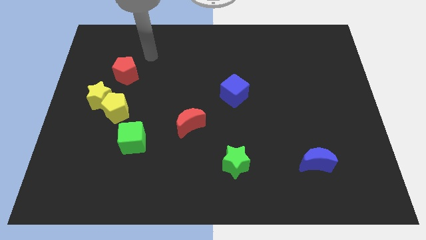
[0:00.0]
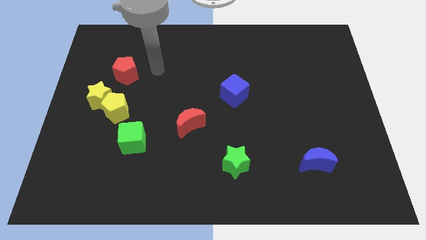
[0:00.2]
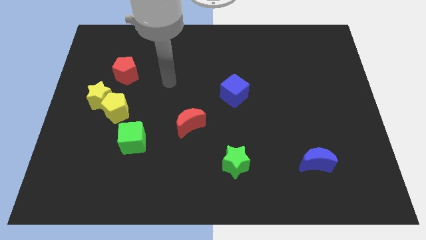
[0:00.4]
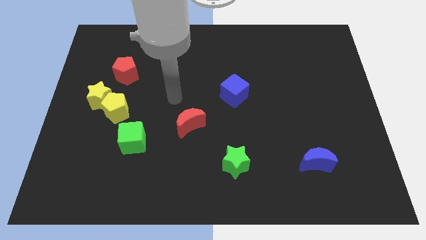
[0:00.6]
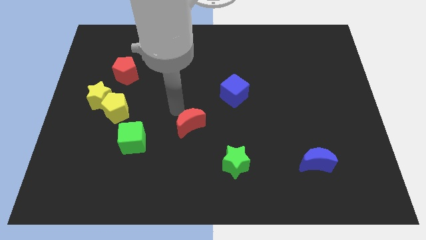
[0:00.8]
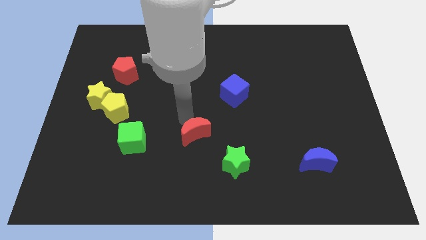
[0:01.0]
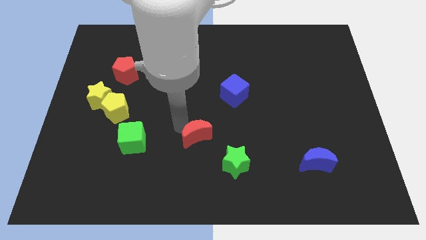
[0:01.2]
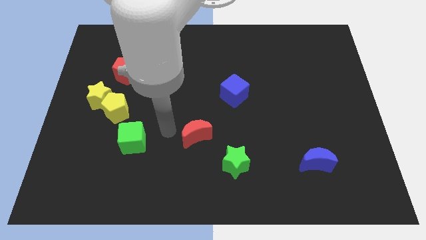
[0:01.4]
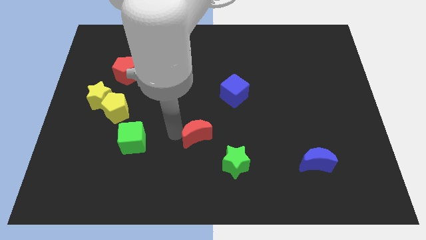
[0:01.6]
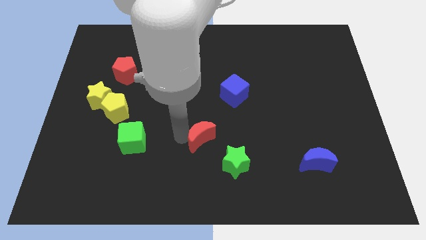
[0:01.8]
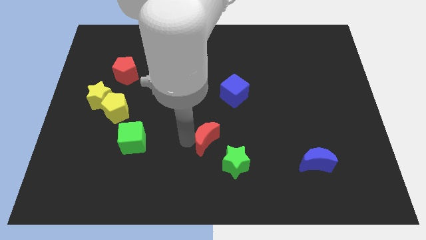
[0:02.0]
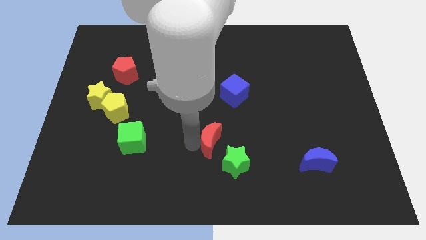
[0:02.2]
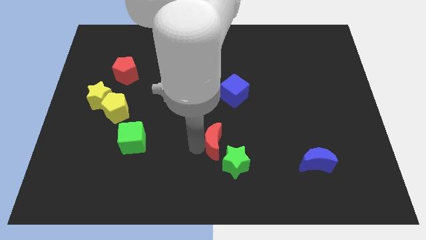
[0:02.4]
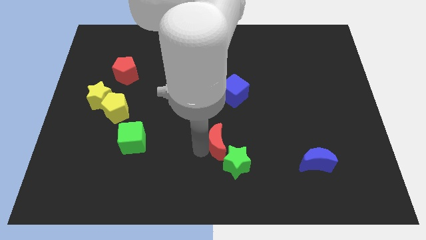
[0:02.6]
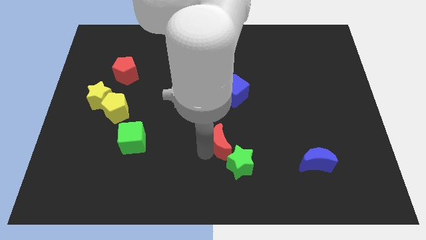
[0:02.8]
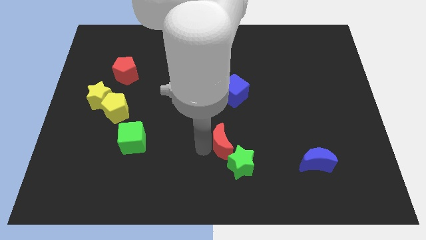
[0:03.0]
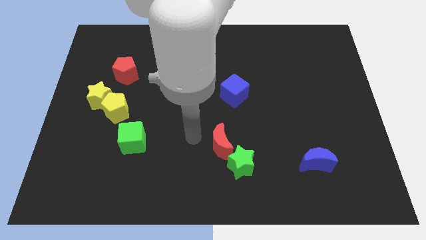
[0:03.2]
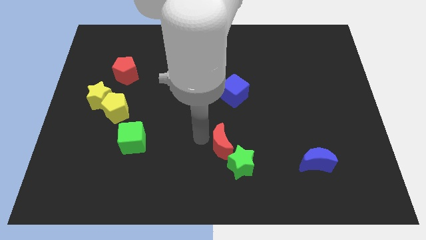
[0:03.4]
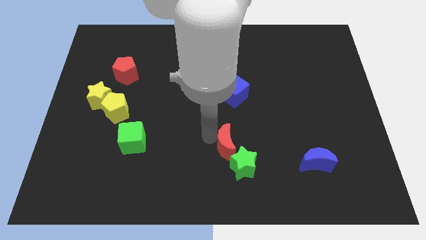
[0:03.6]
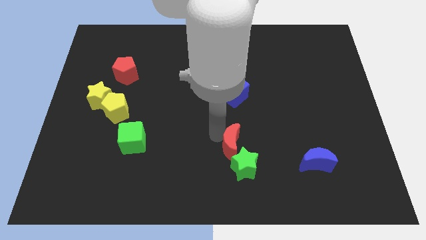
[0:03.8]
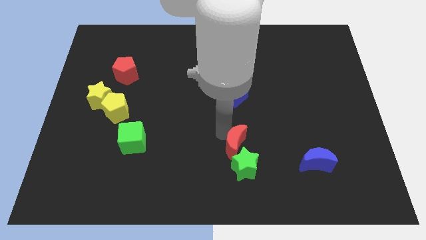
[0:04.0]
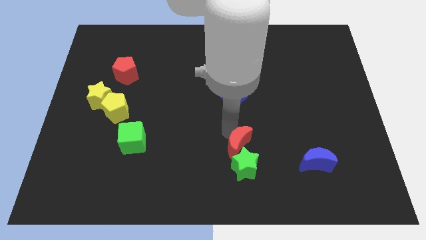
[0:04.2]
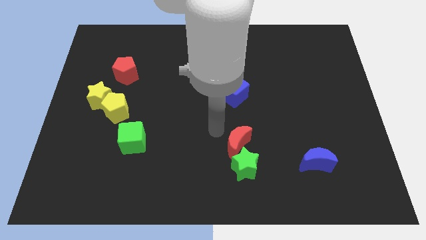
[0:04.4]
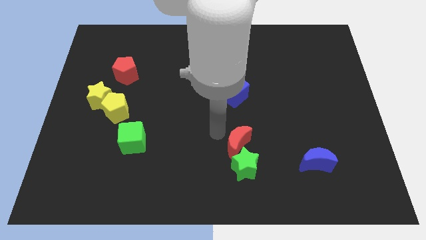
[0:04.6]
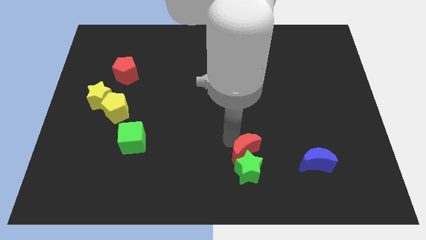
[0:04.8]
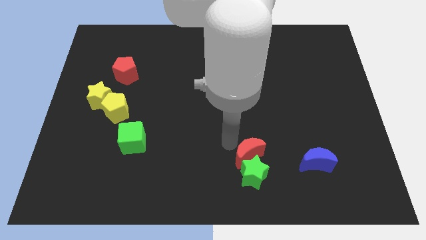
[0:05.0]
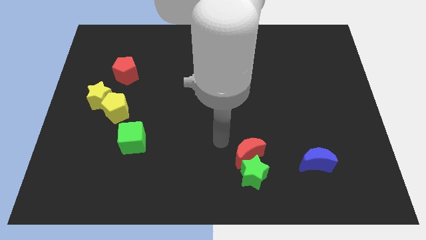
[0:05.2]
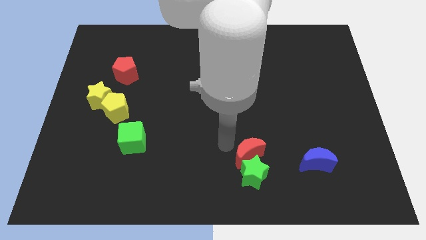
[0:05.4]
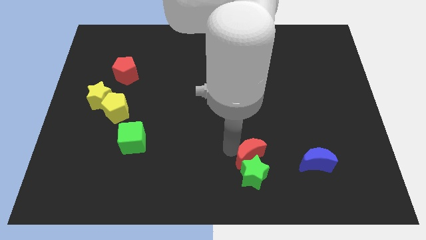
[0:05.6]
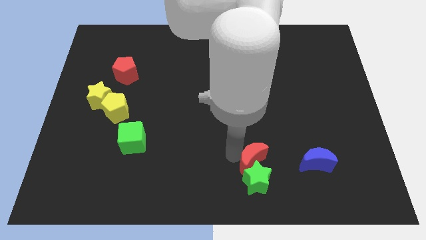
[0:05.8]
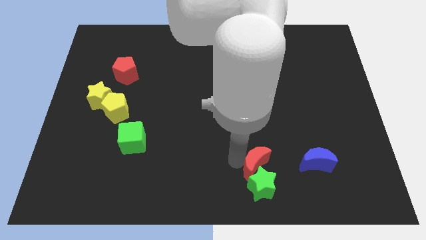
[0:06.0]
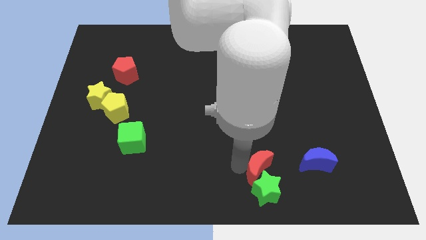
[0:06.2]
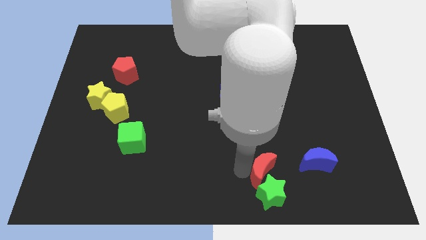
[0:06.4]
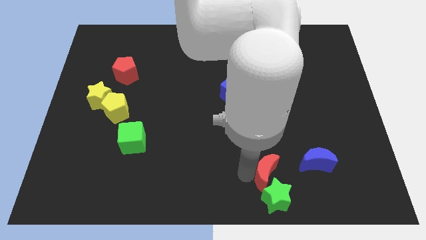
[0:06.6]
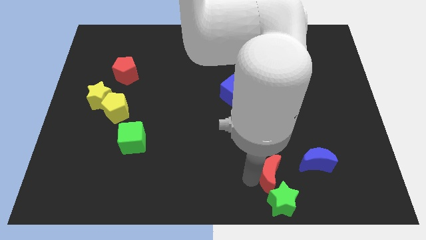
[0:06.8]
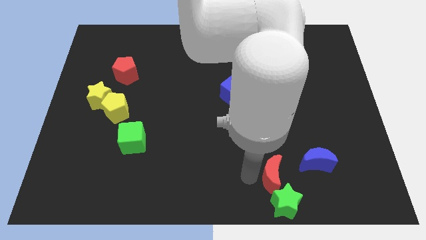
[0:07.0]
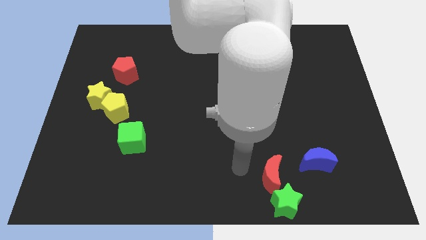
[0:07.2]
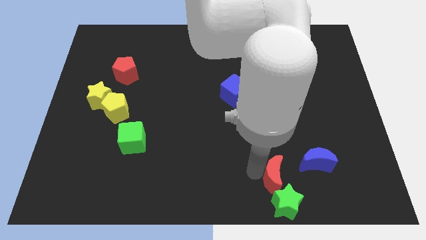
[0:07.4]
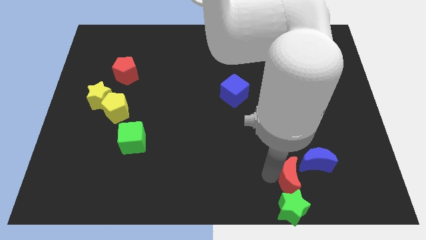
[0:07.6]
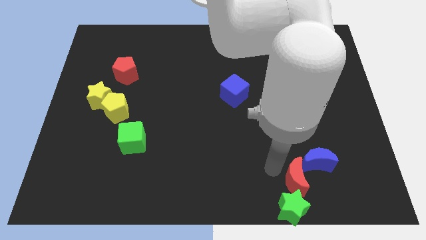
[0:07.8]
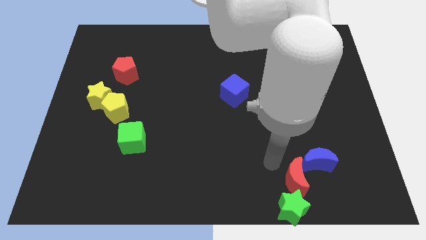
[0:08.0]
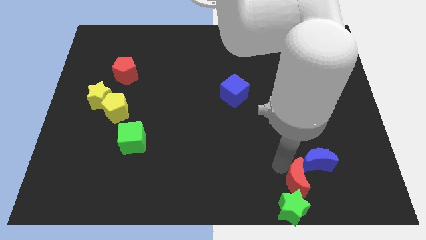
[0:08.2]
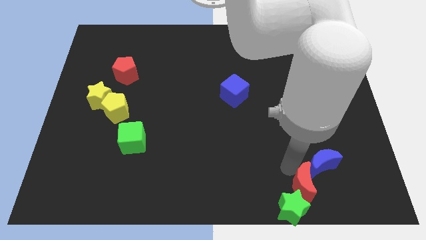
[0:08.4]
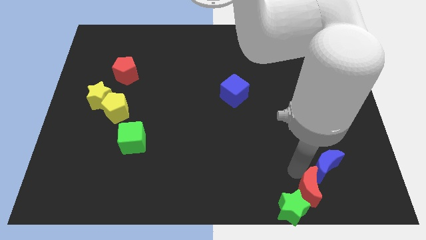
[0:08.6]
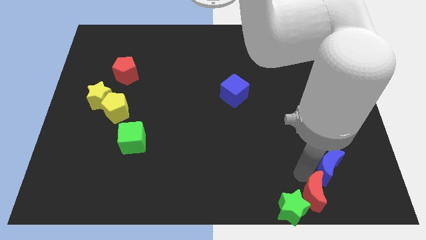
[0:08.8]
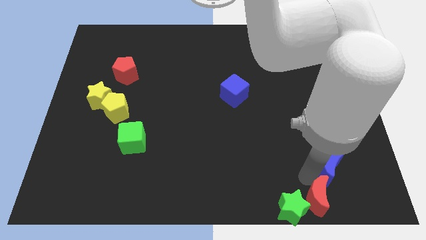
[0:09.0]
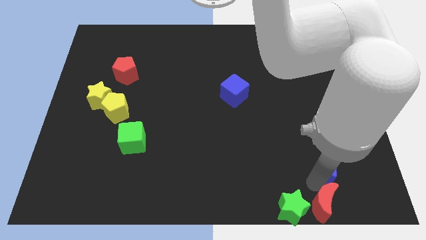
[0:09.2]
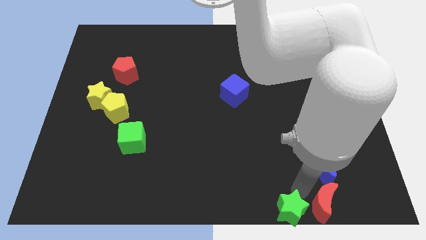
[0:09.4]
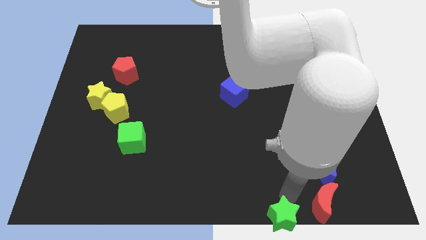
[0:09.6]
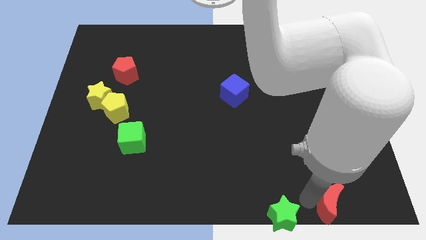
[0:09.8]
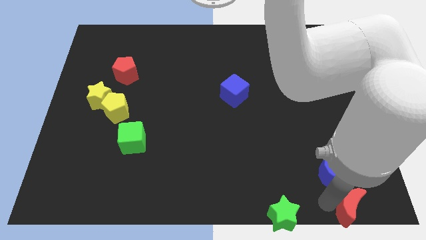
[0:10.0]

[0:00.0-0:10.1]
slide the red moon to the bottom right

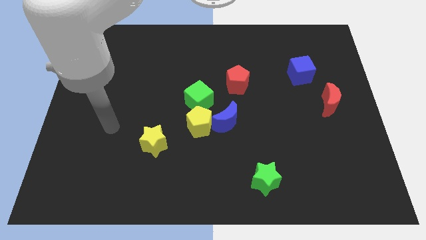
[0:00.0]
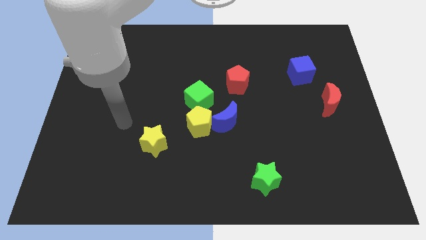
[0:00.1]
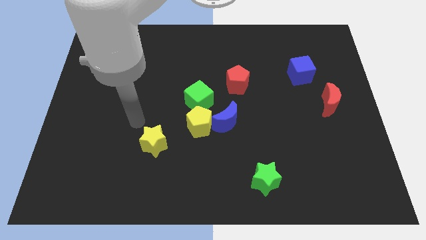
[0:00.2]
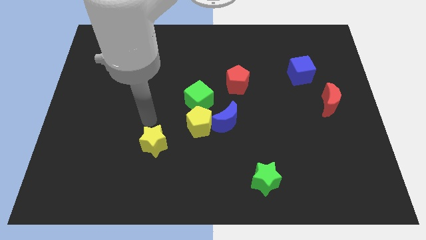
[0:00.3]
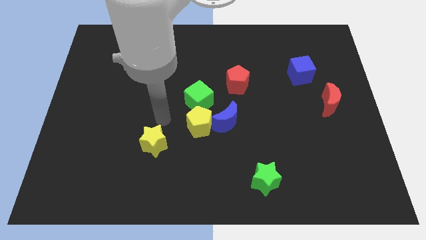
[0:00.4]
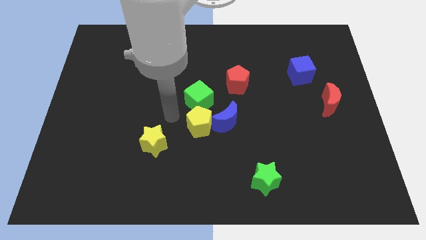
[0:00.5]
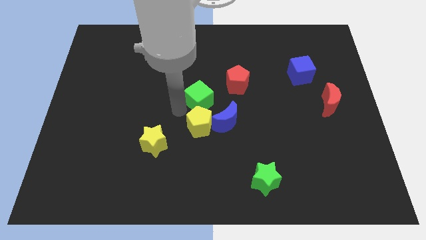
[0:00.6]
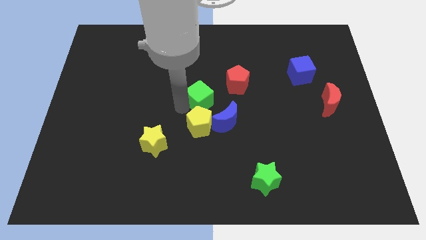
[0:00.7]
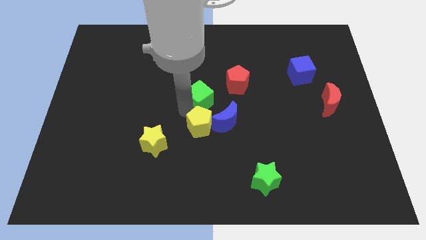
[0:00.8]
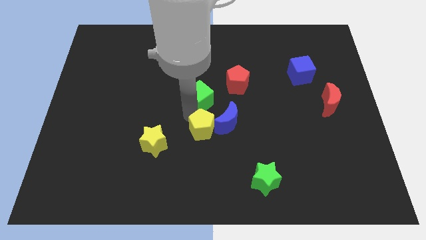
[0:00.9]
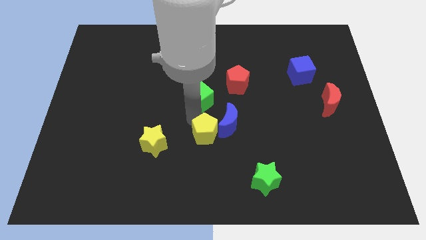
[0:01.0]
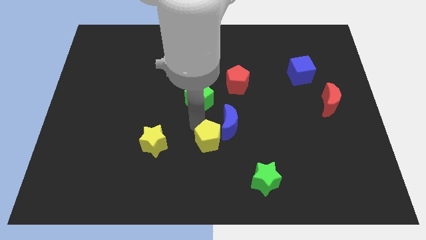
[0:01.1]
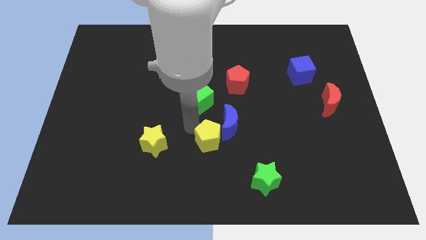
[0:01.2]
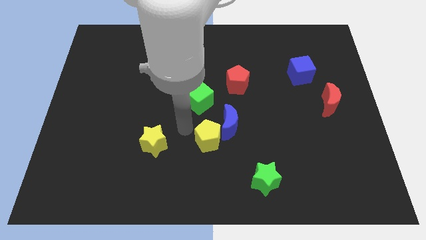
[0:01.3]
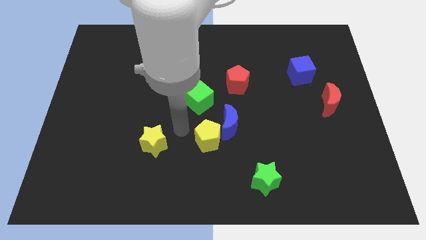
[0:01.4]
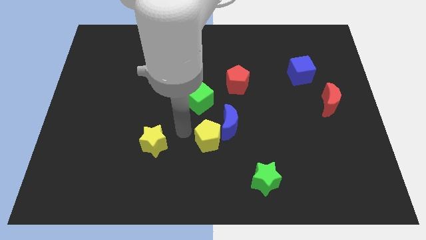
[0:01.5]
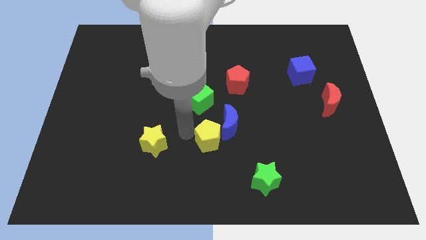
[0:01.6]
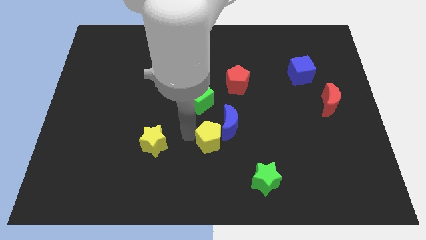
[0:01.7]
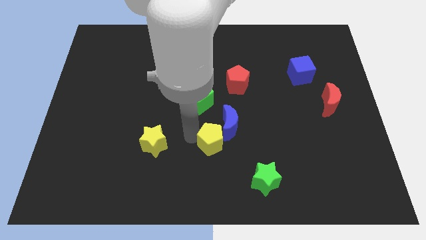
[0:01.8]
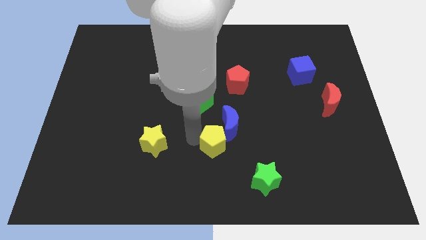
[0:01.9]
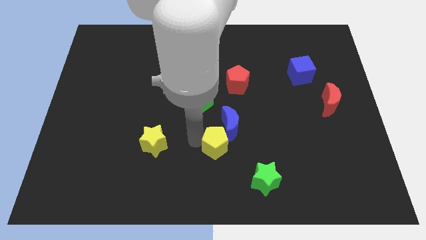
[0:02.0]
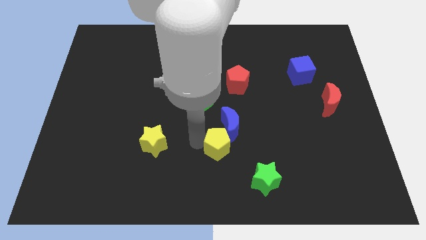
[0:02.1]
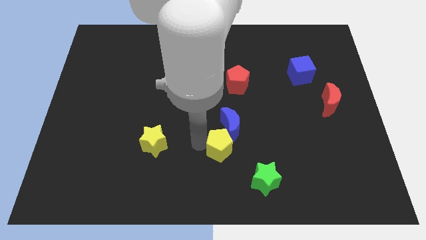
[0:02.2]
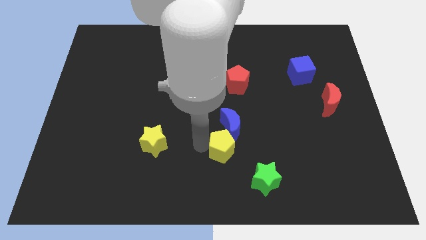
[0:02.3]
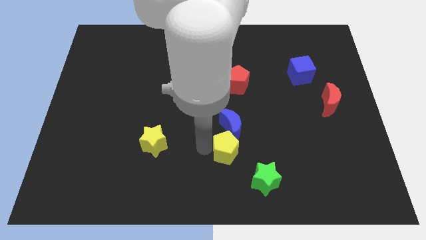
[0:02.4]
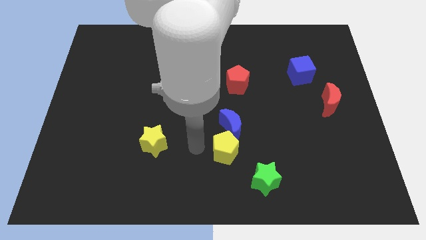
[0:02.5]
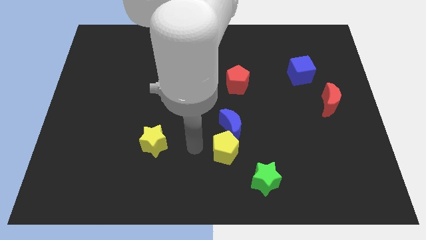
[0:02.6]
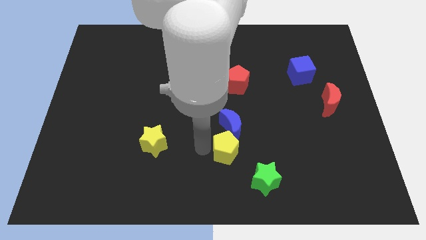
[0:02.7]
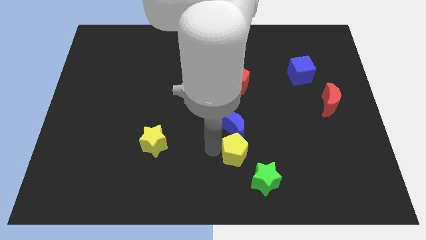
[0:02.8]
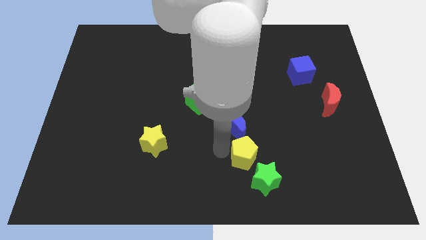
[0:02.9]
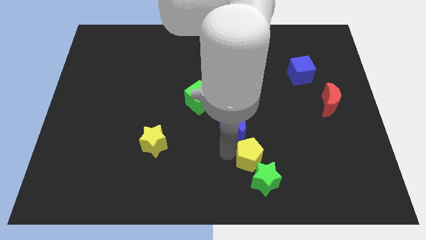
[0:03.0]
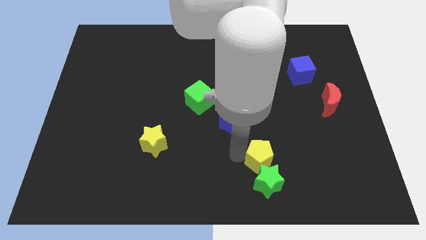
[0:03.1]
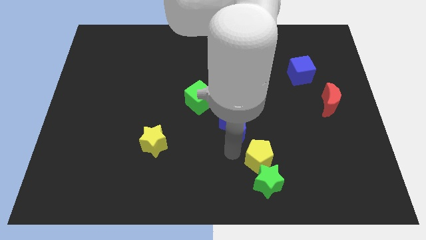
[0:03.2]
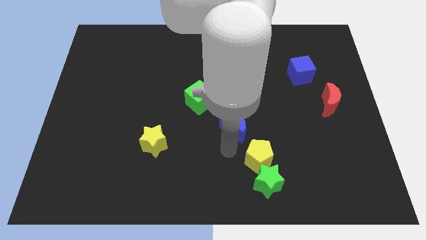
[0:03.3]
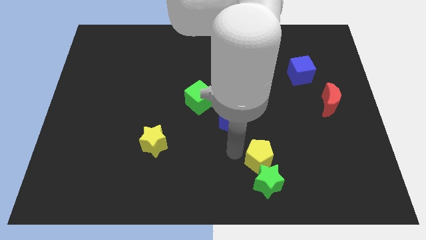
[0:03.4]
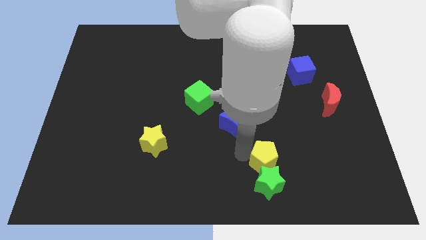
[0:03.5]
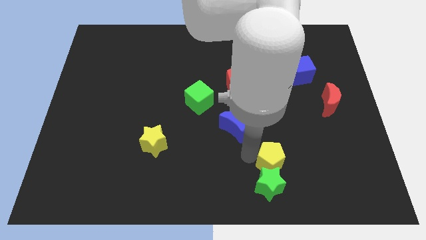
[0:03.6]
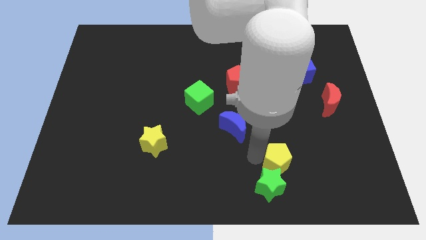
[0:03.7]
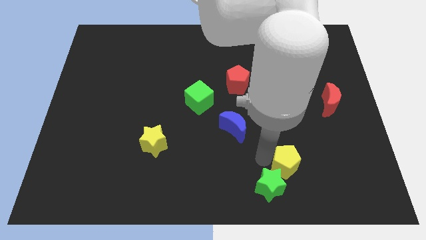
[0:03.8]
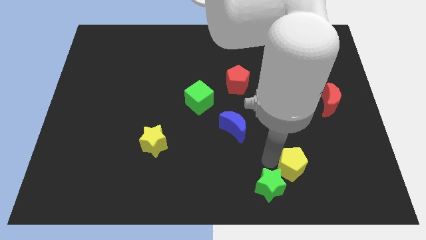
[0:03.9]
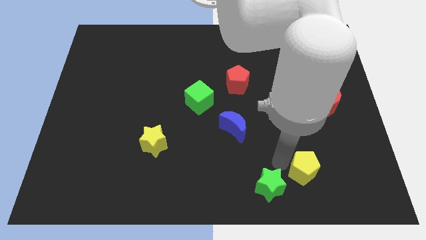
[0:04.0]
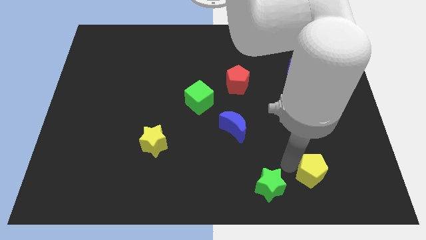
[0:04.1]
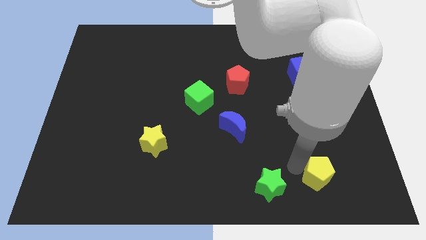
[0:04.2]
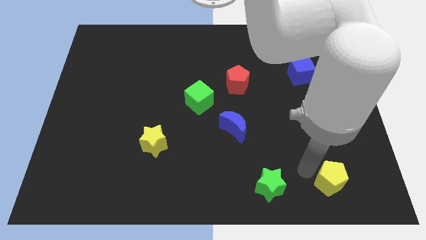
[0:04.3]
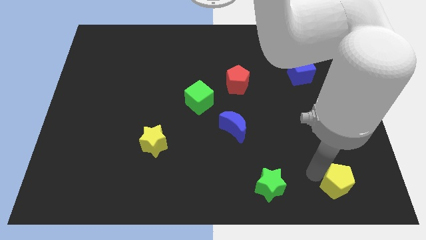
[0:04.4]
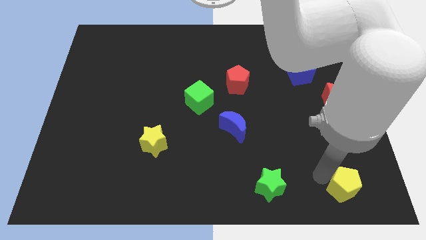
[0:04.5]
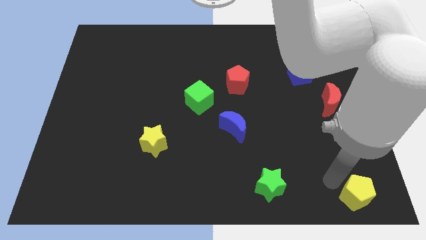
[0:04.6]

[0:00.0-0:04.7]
slide the yellow pentagon to the bottom right corner
